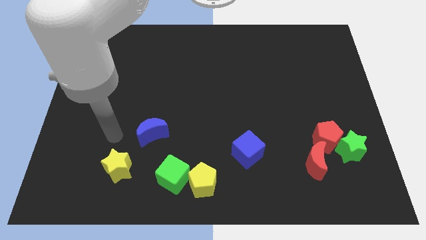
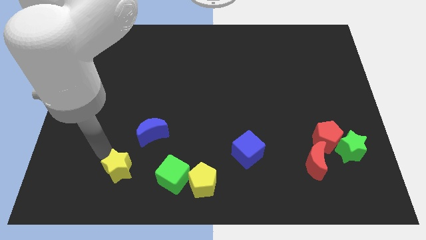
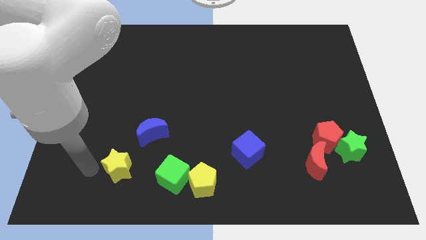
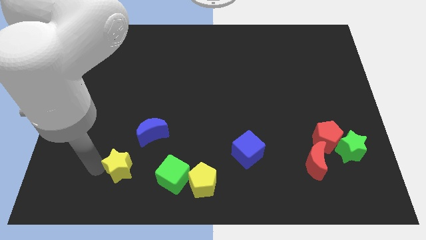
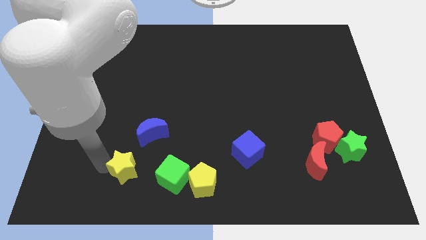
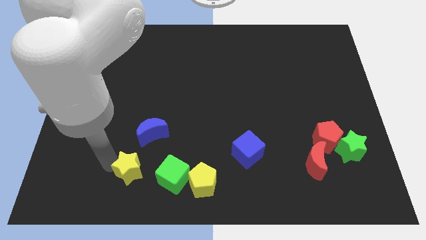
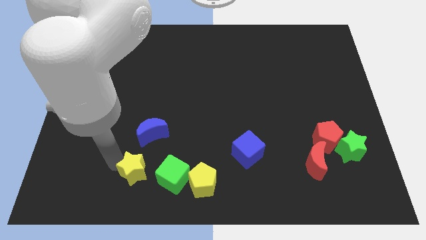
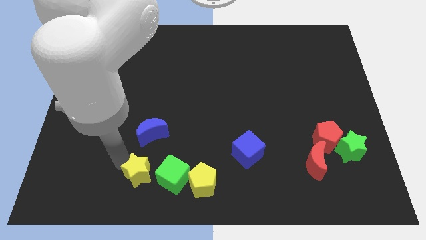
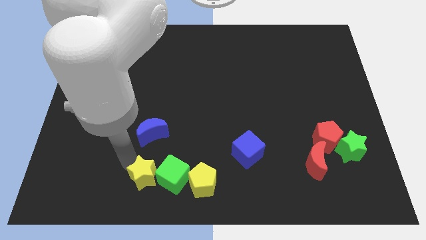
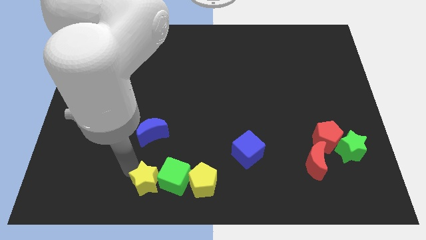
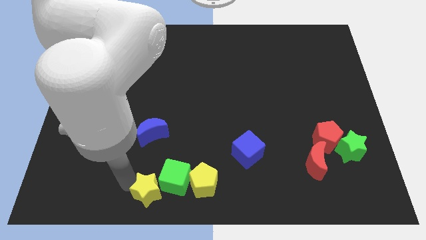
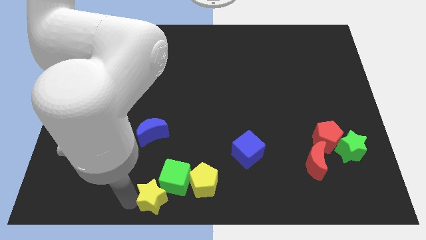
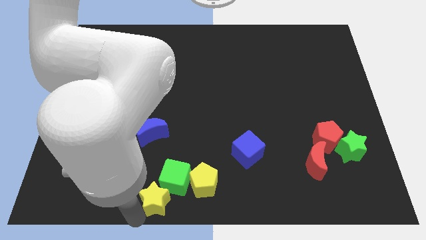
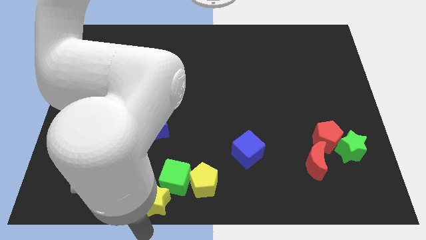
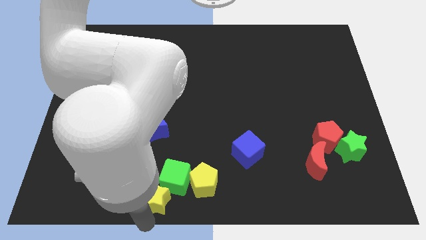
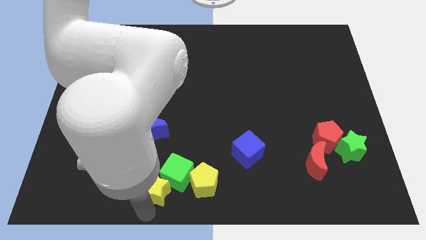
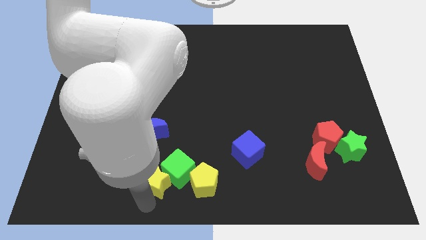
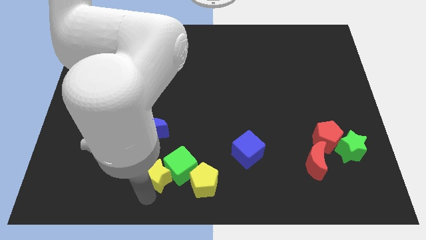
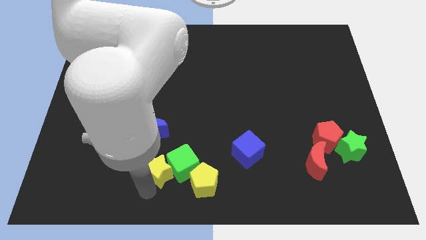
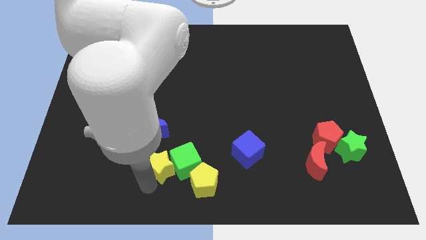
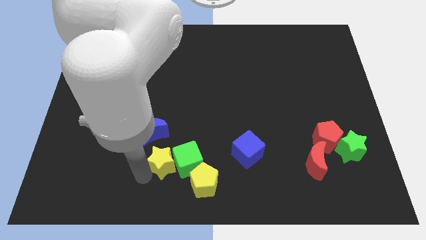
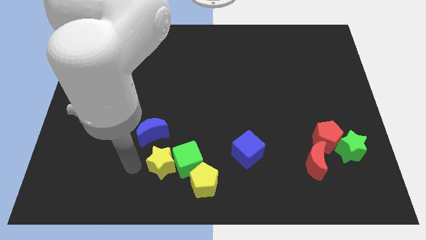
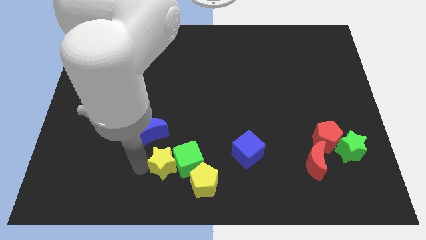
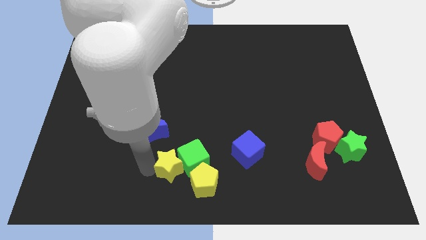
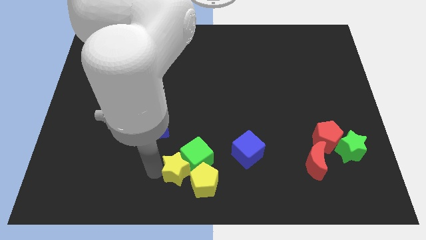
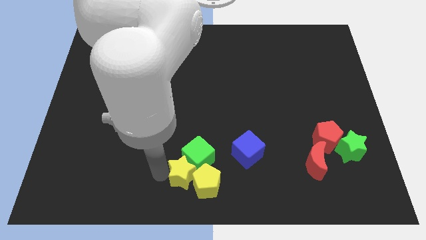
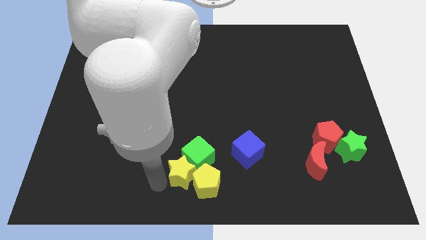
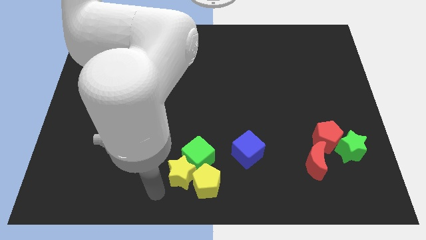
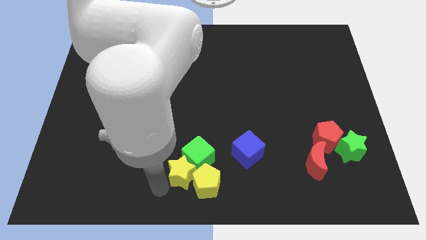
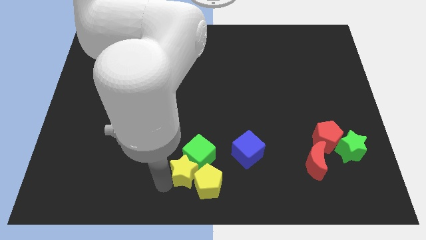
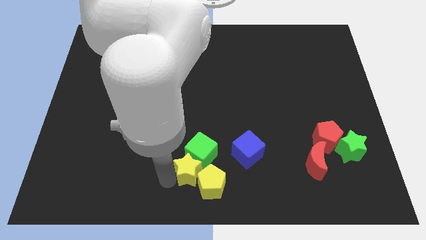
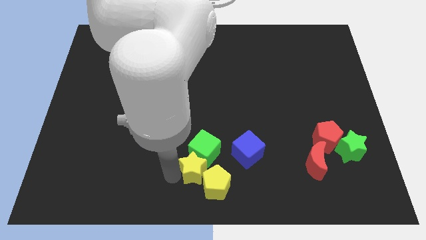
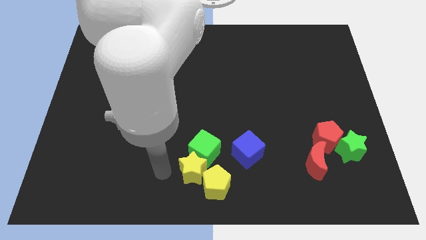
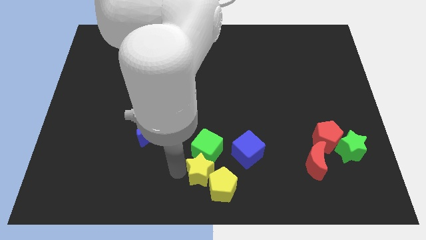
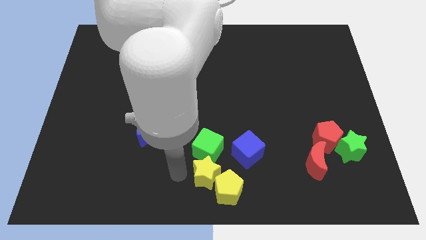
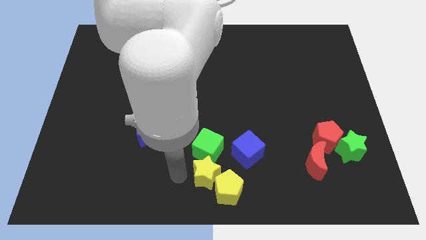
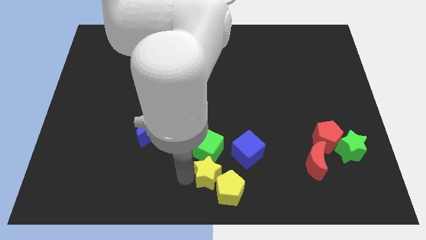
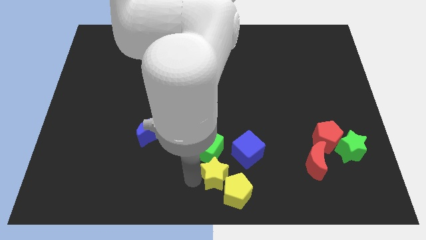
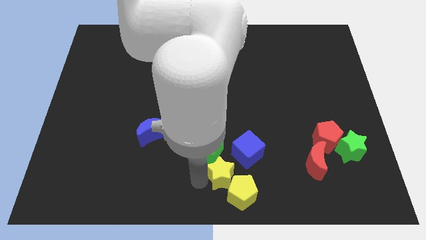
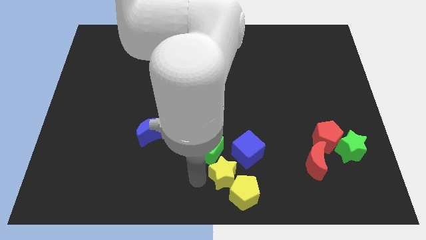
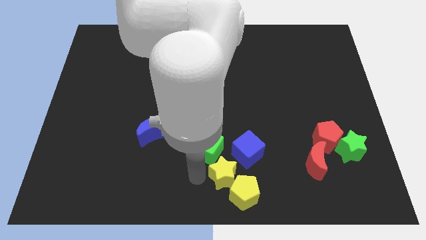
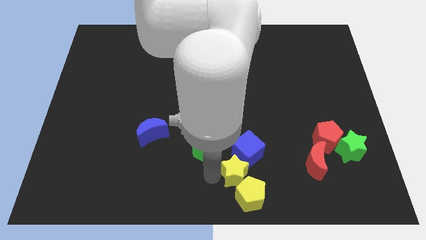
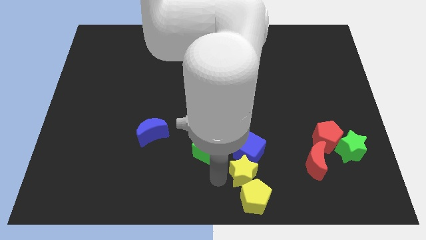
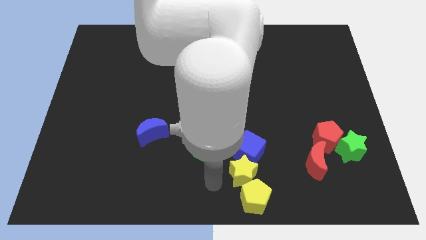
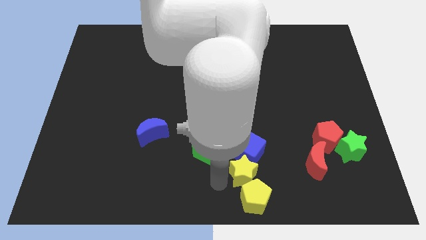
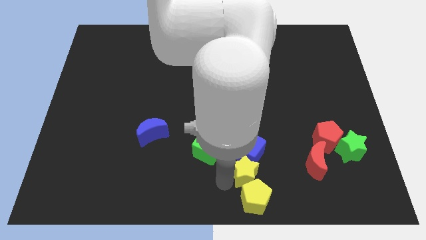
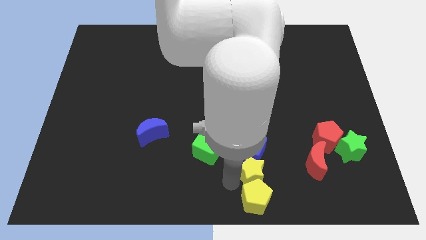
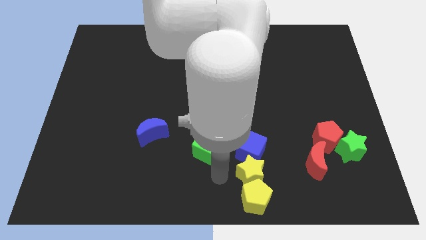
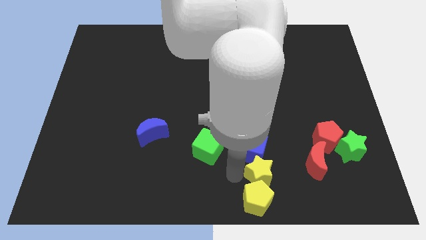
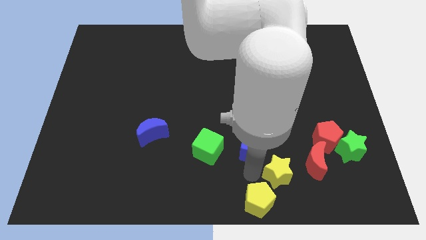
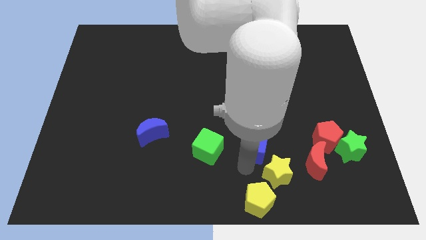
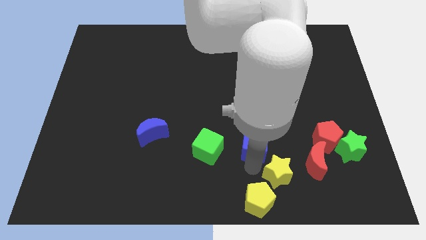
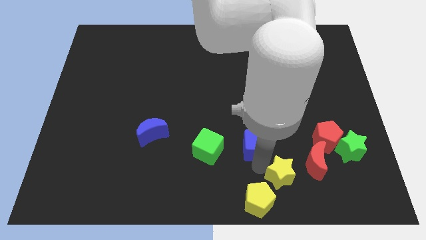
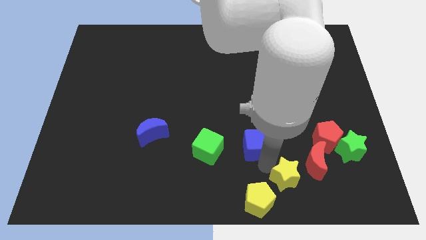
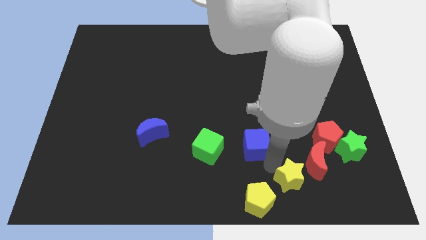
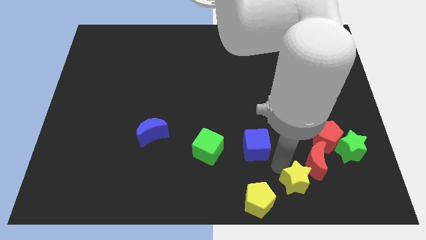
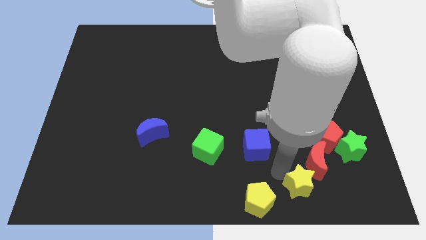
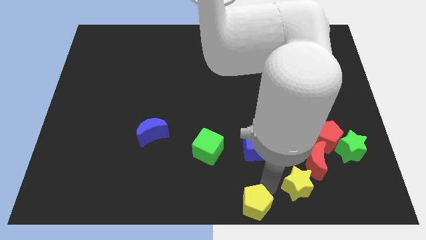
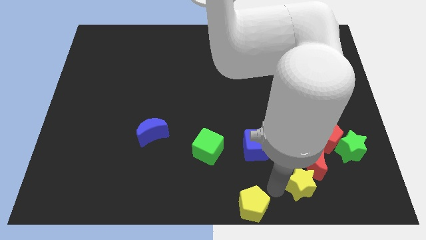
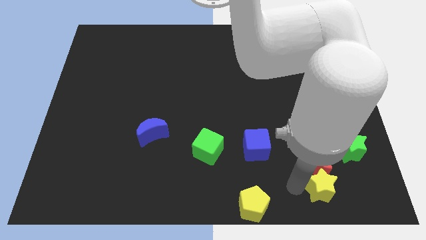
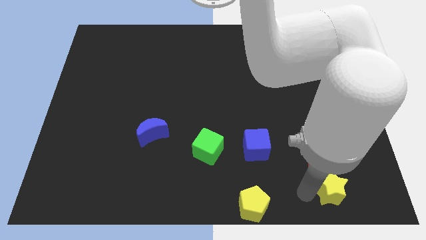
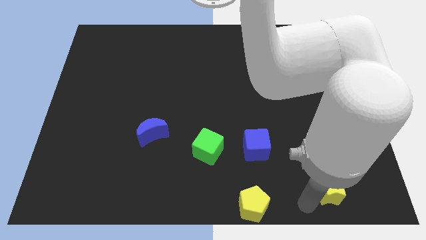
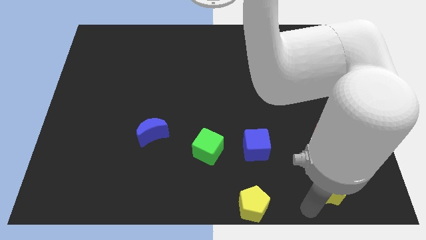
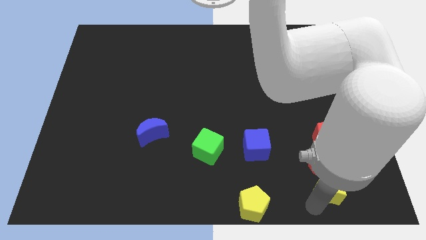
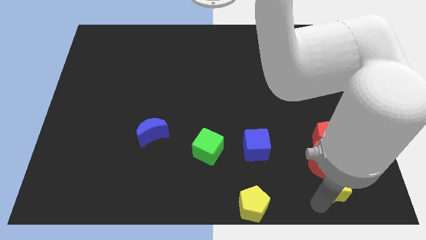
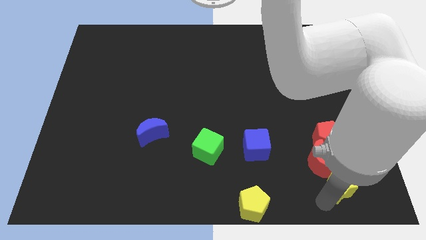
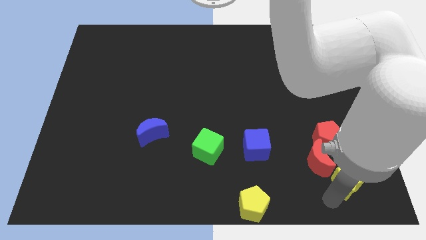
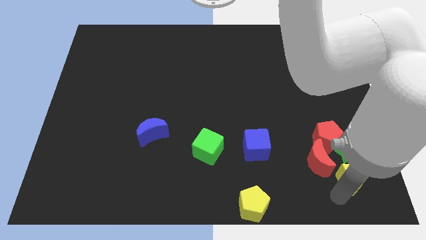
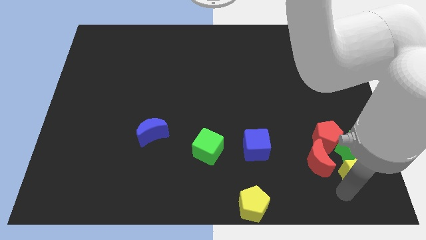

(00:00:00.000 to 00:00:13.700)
push the yellow star towards the green star

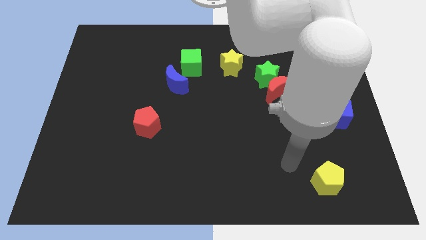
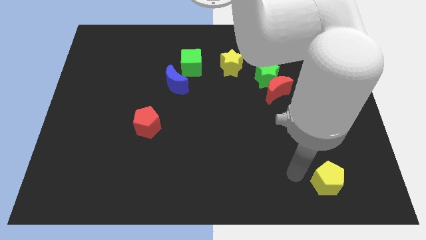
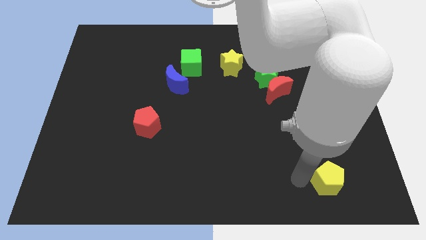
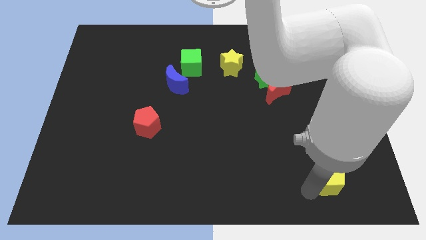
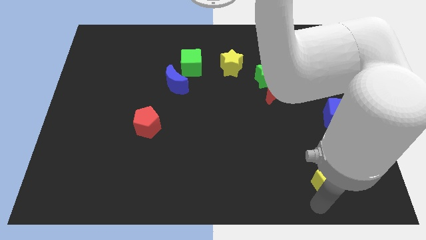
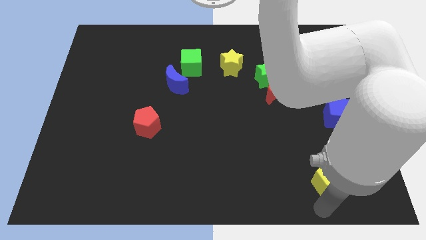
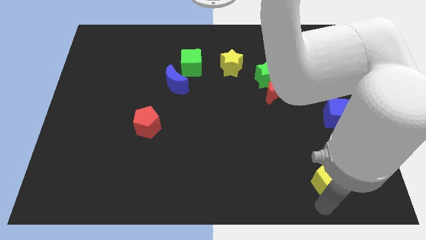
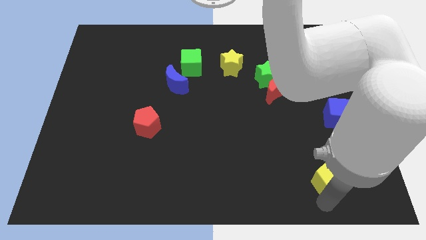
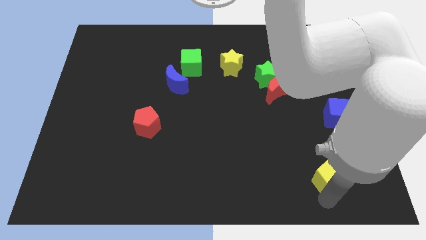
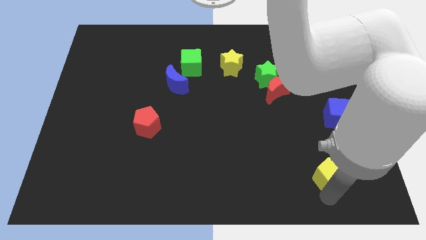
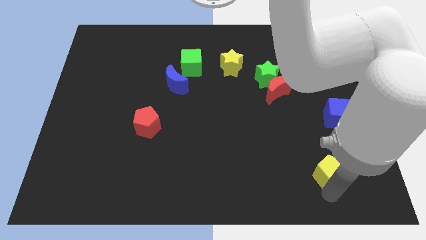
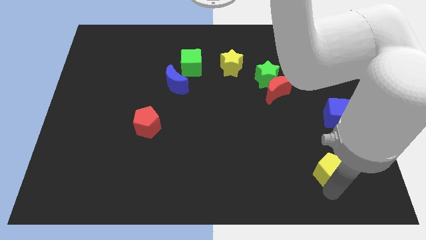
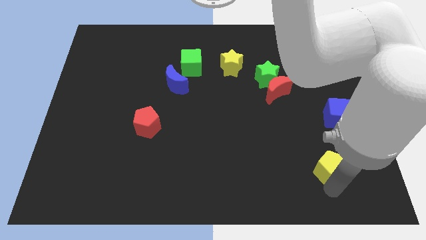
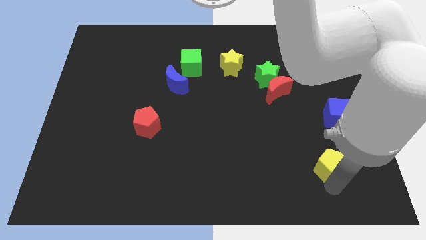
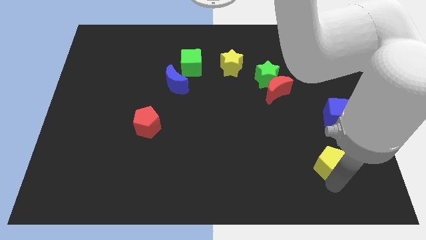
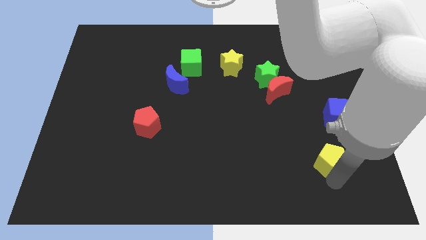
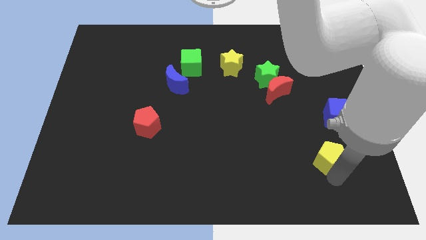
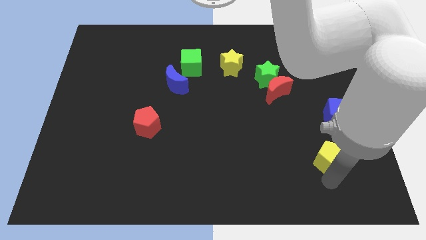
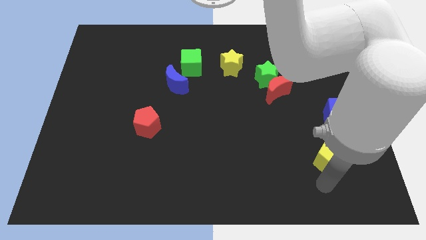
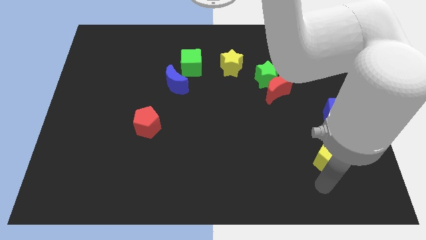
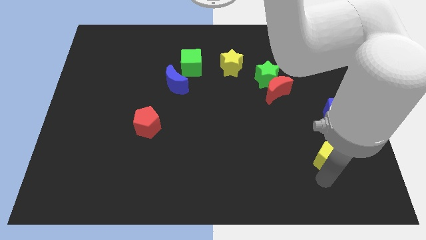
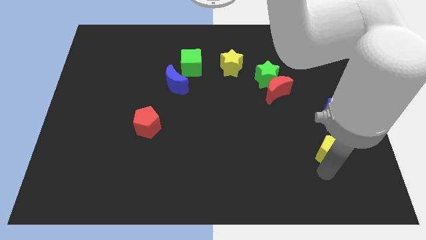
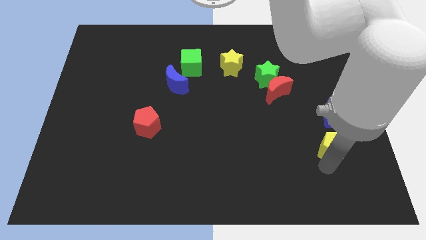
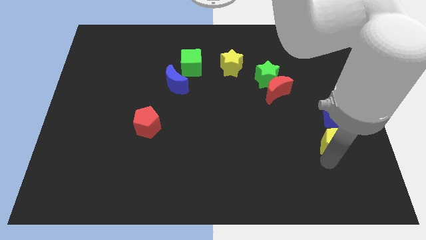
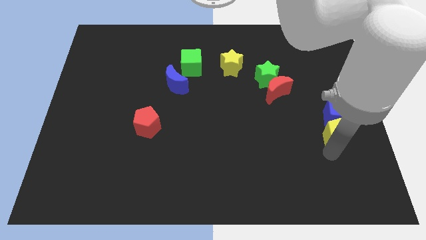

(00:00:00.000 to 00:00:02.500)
slide the yellow pentagon close to the blue cube
